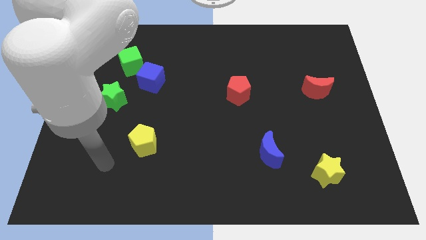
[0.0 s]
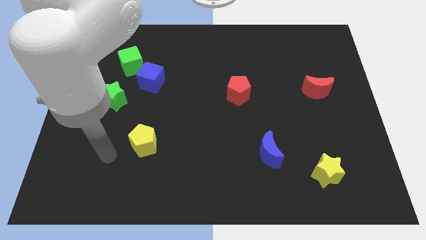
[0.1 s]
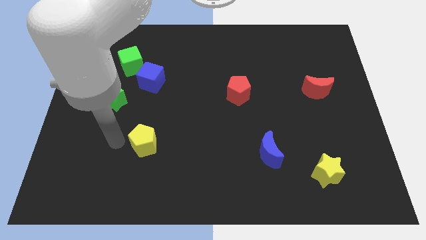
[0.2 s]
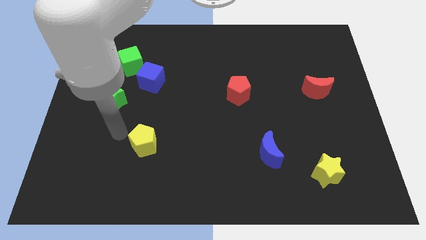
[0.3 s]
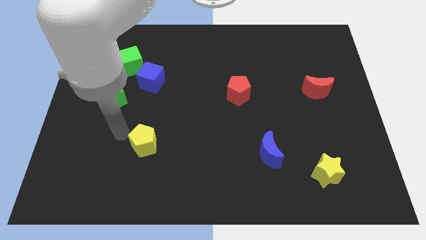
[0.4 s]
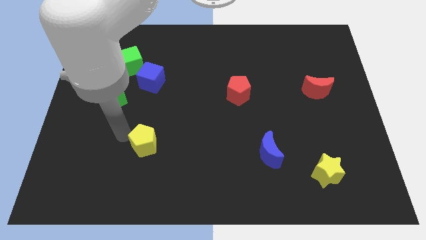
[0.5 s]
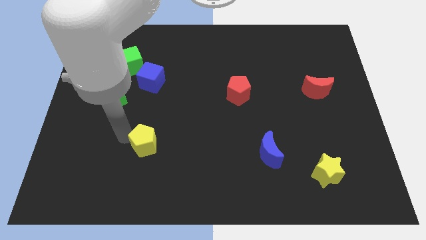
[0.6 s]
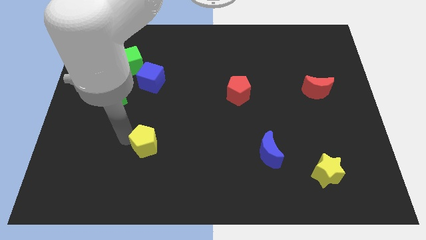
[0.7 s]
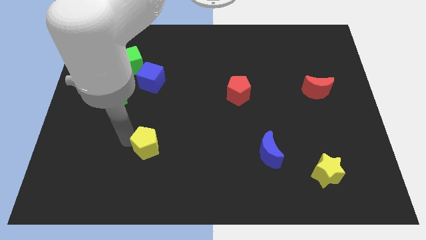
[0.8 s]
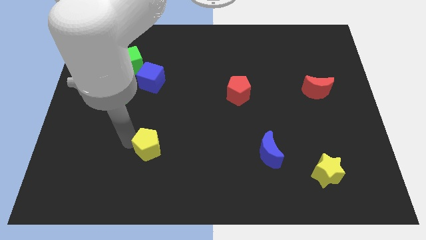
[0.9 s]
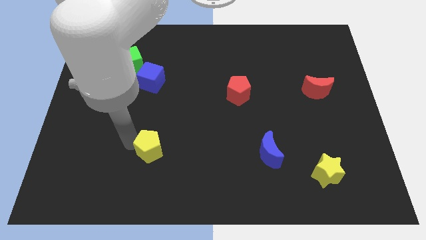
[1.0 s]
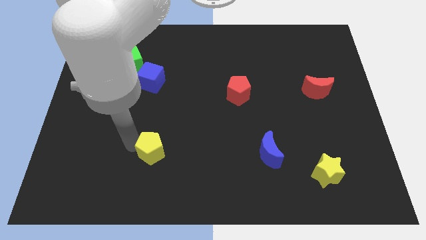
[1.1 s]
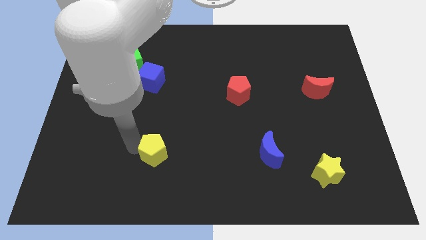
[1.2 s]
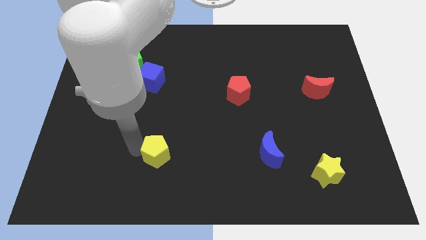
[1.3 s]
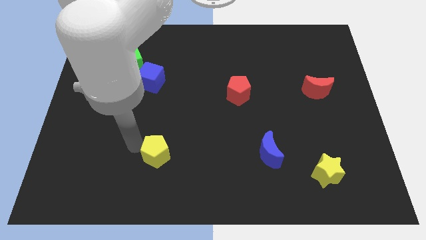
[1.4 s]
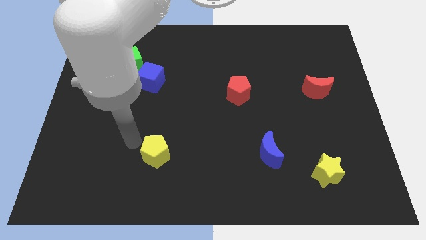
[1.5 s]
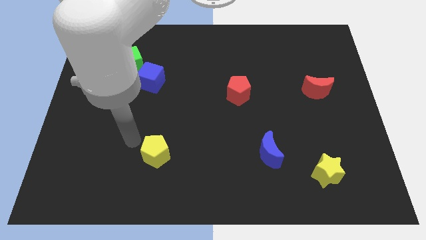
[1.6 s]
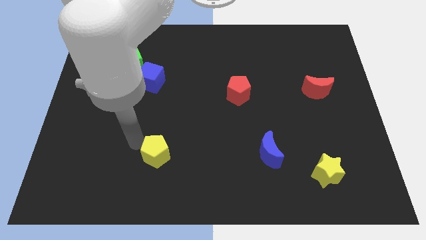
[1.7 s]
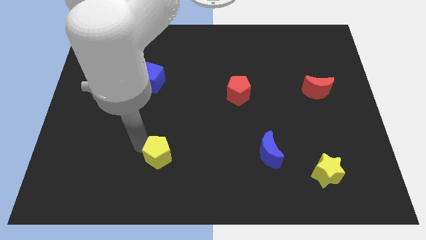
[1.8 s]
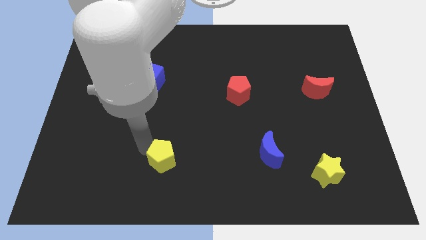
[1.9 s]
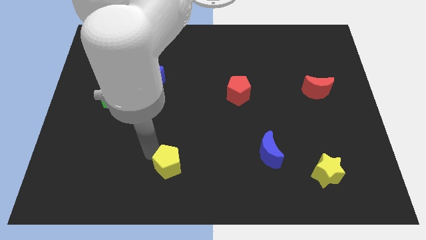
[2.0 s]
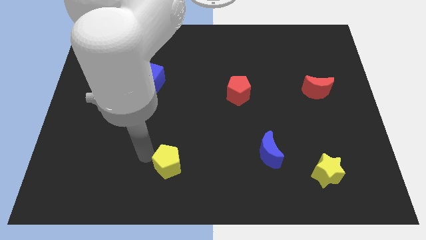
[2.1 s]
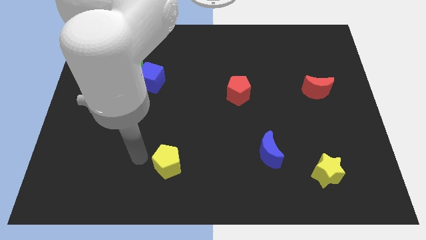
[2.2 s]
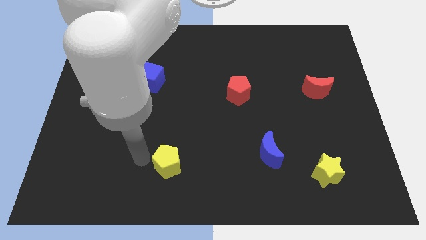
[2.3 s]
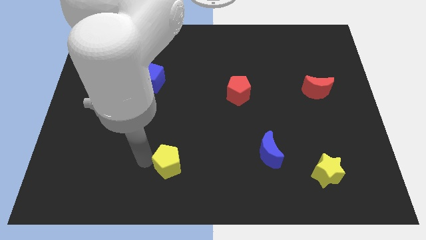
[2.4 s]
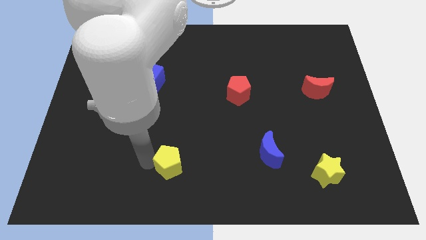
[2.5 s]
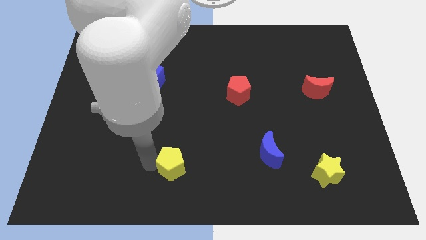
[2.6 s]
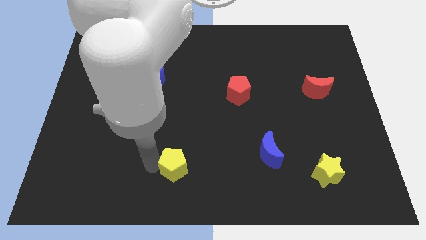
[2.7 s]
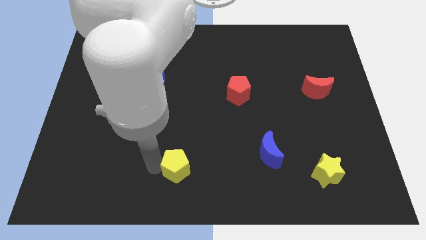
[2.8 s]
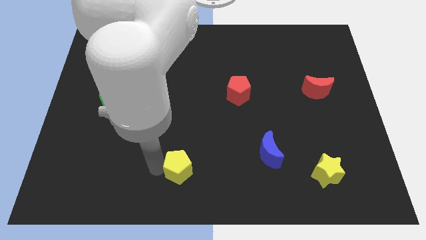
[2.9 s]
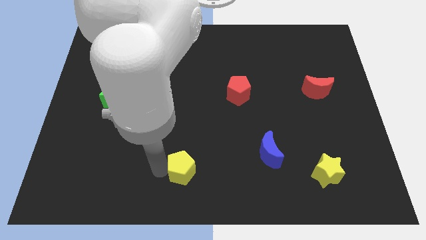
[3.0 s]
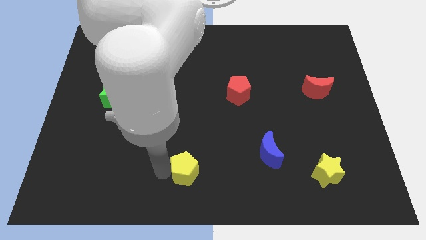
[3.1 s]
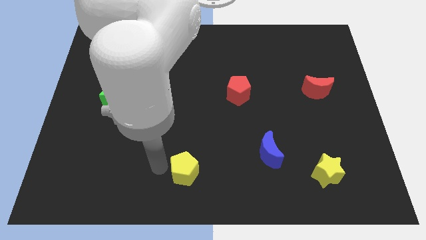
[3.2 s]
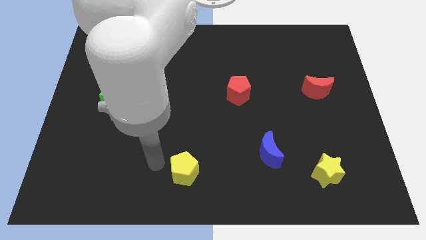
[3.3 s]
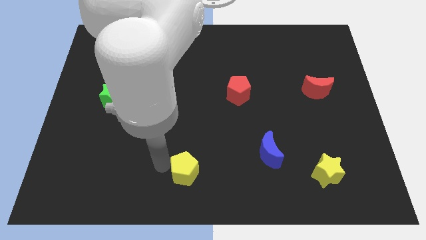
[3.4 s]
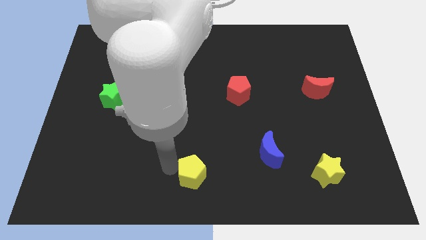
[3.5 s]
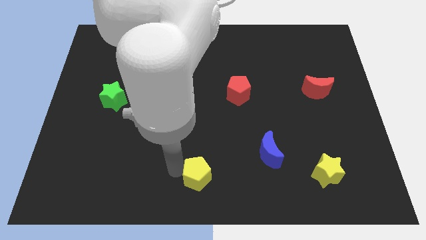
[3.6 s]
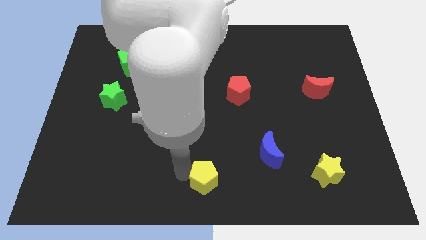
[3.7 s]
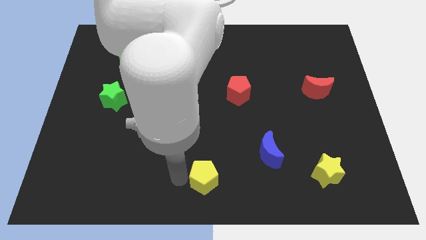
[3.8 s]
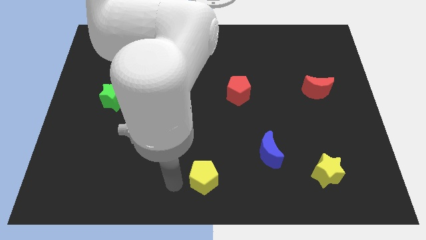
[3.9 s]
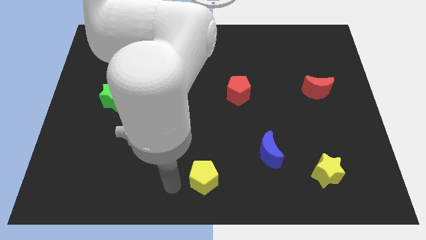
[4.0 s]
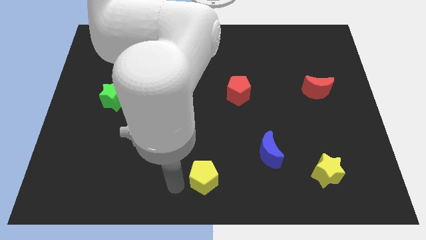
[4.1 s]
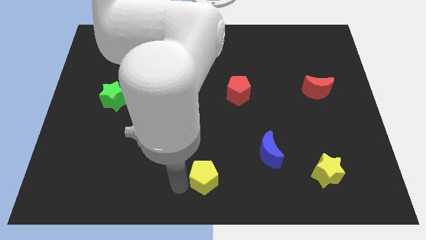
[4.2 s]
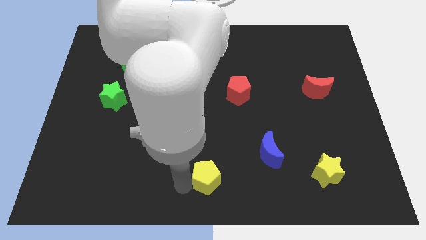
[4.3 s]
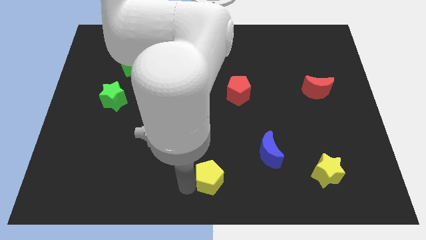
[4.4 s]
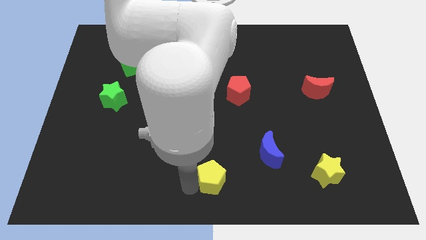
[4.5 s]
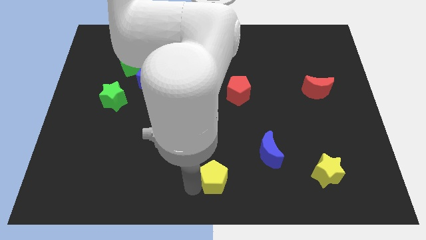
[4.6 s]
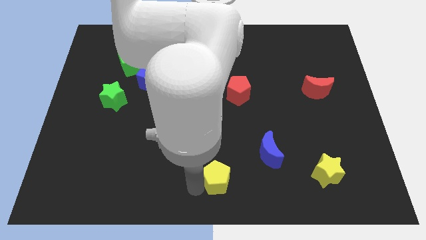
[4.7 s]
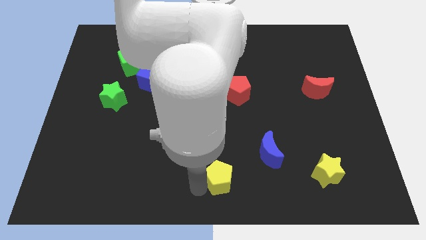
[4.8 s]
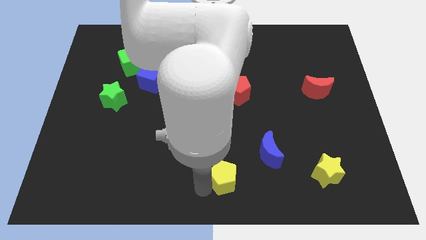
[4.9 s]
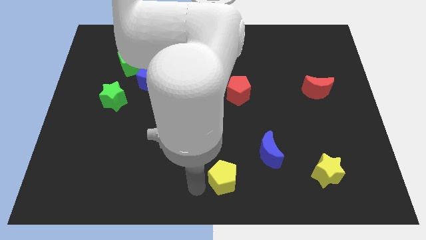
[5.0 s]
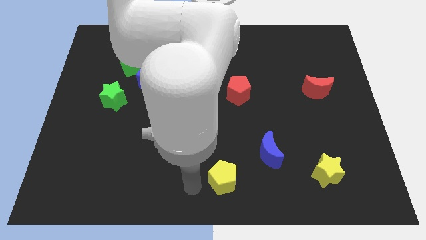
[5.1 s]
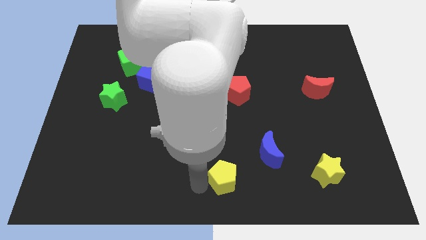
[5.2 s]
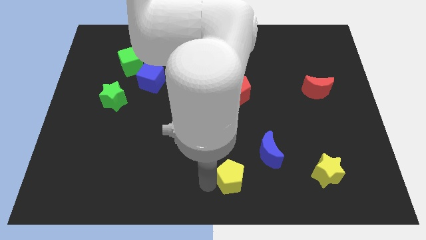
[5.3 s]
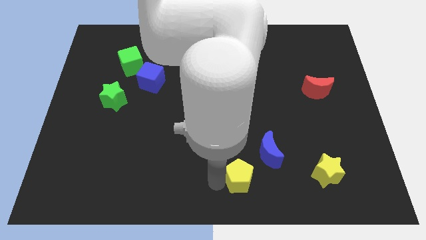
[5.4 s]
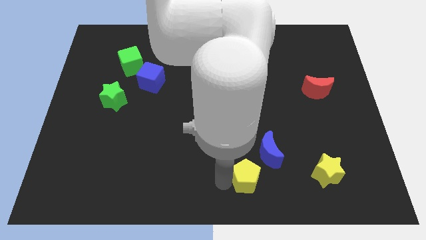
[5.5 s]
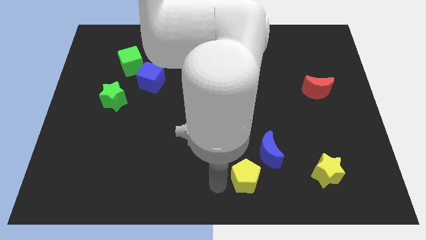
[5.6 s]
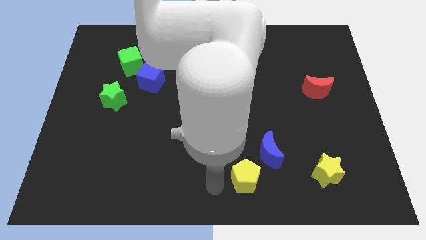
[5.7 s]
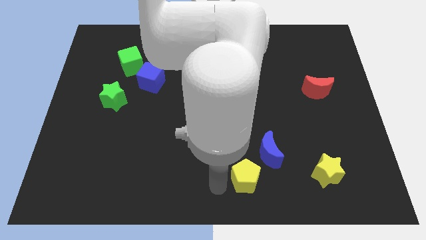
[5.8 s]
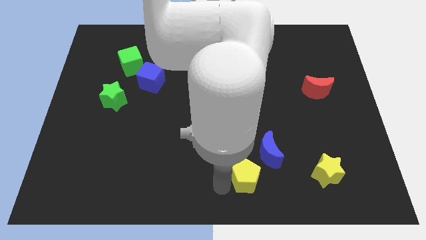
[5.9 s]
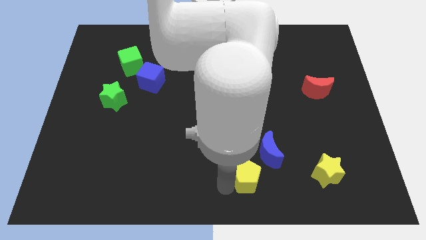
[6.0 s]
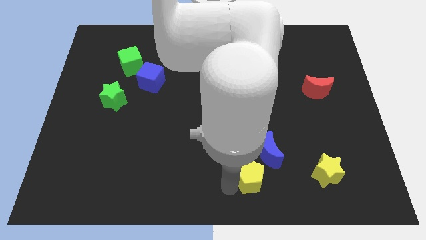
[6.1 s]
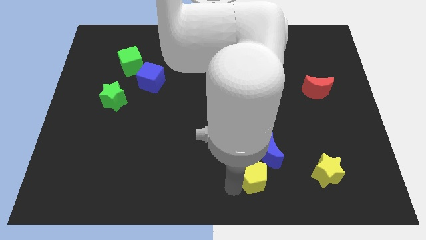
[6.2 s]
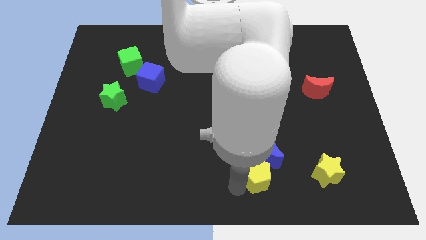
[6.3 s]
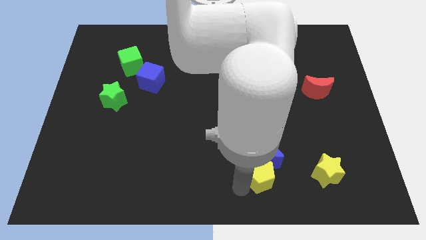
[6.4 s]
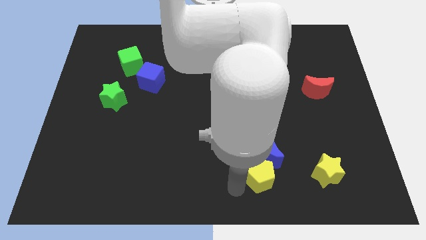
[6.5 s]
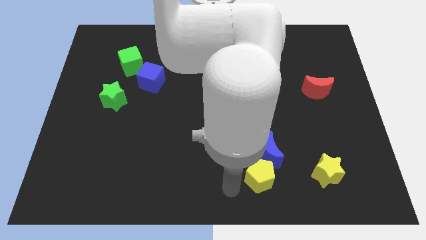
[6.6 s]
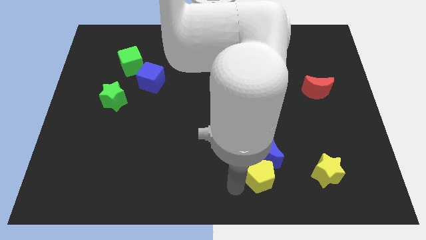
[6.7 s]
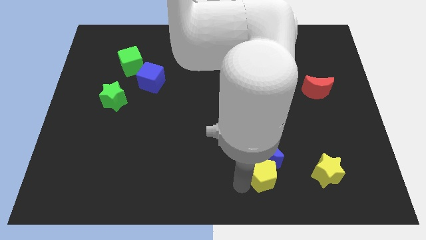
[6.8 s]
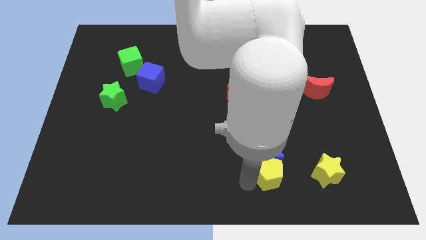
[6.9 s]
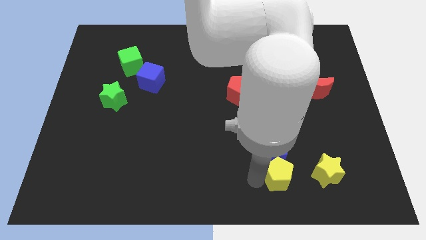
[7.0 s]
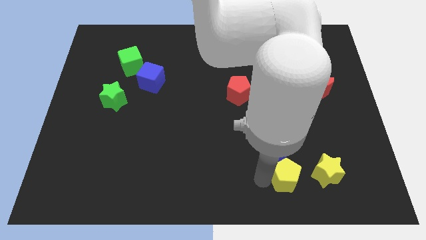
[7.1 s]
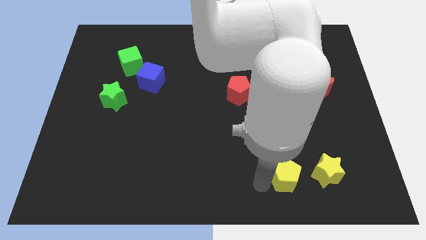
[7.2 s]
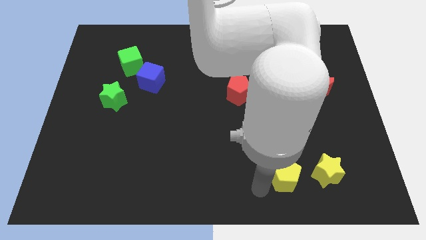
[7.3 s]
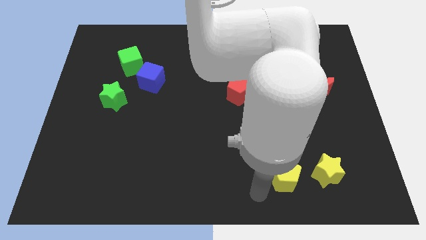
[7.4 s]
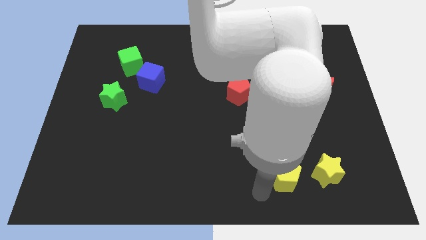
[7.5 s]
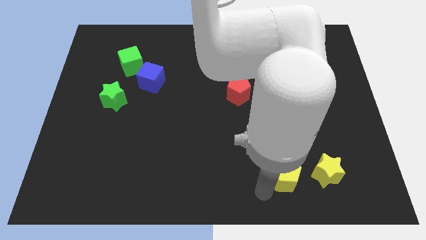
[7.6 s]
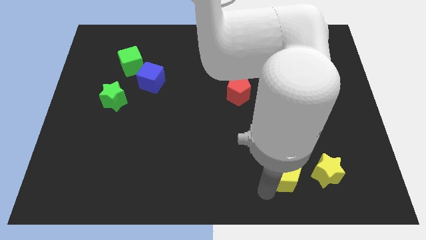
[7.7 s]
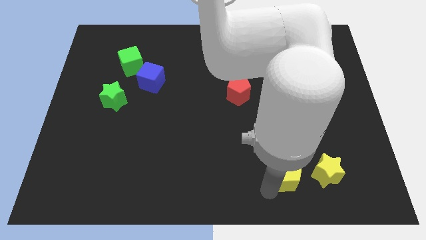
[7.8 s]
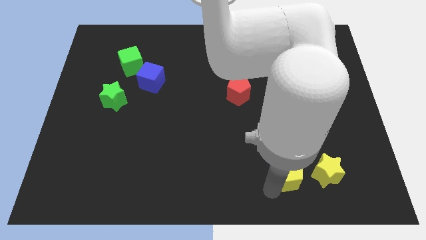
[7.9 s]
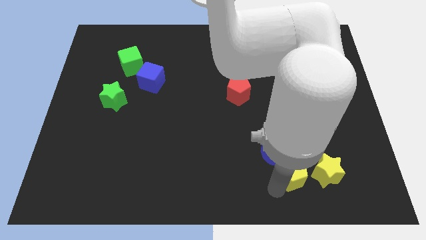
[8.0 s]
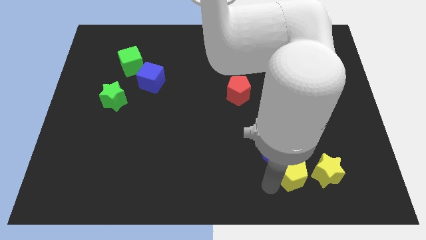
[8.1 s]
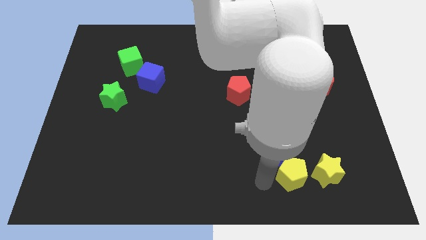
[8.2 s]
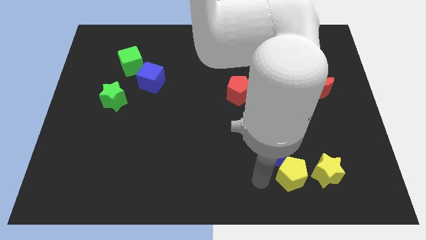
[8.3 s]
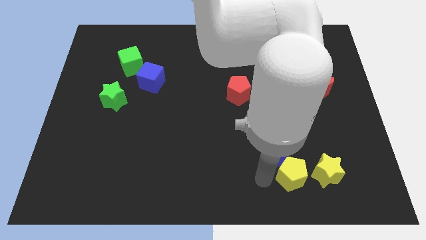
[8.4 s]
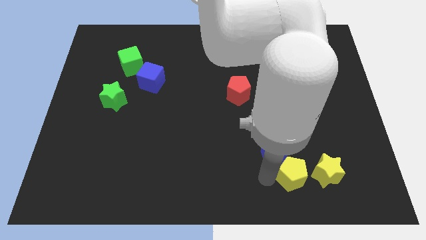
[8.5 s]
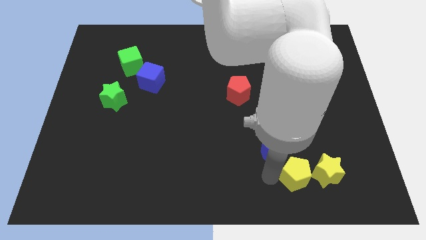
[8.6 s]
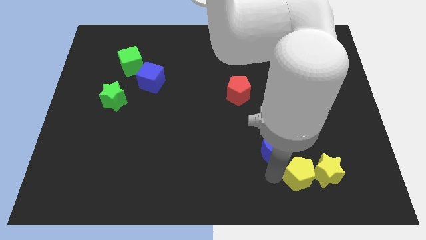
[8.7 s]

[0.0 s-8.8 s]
push the yellow pentagon next to the yellow star
